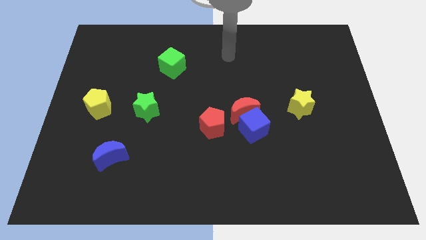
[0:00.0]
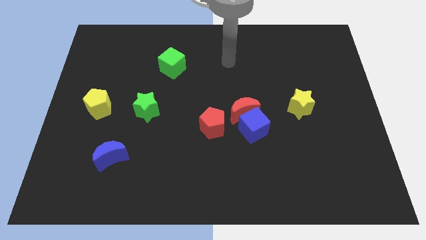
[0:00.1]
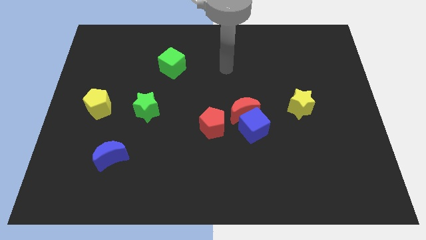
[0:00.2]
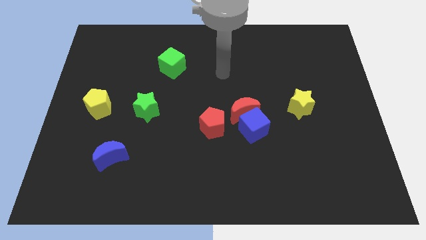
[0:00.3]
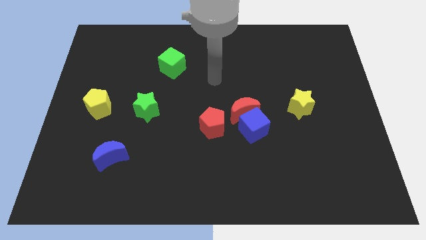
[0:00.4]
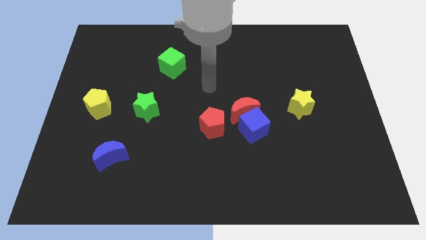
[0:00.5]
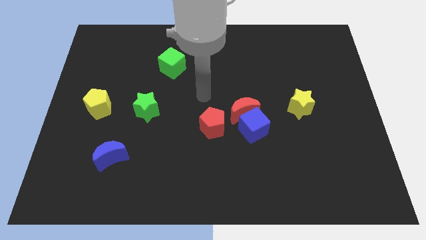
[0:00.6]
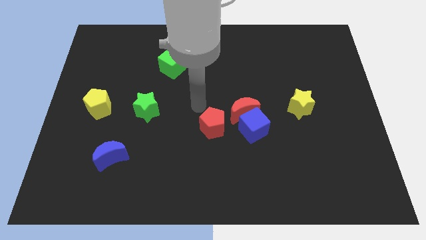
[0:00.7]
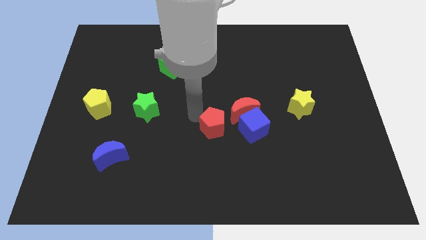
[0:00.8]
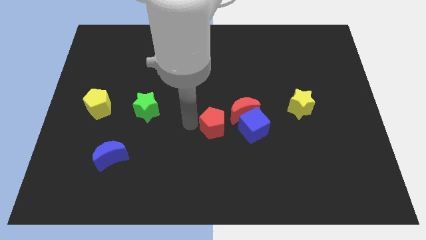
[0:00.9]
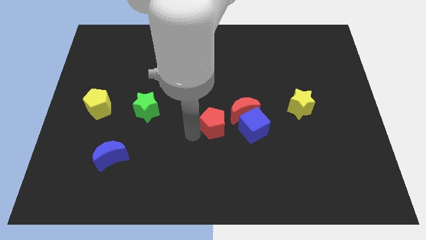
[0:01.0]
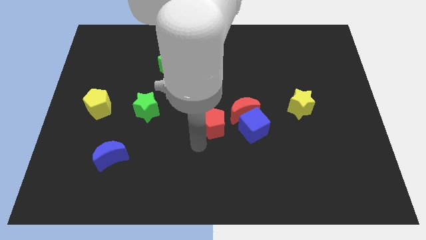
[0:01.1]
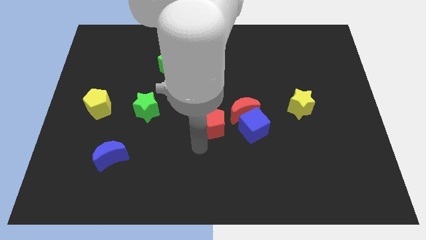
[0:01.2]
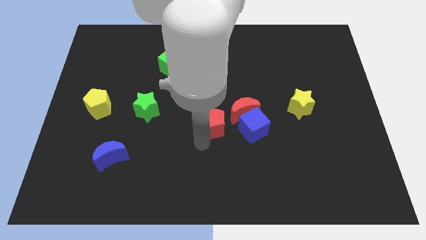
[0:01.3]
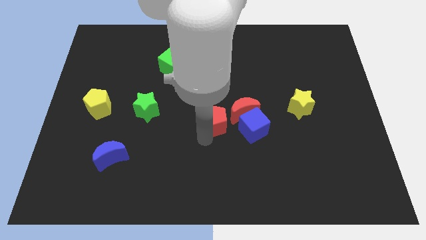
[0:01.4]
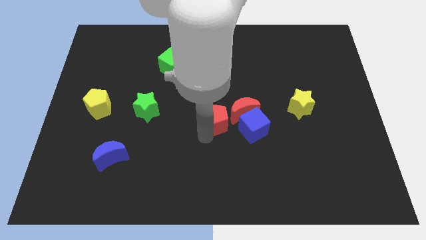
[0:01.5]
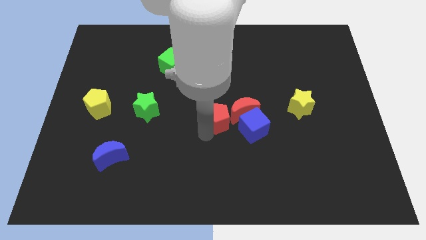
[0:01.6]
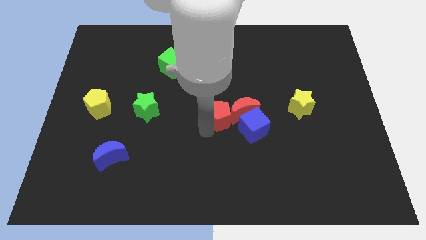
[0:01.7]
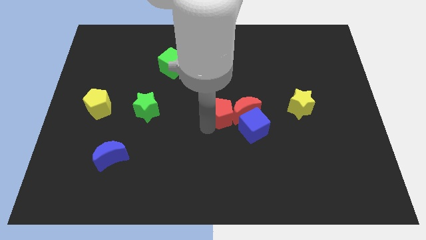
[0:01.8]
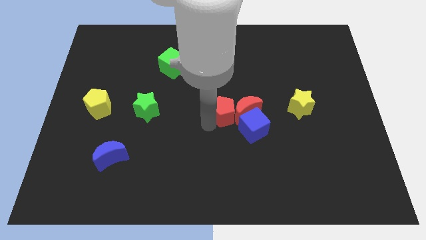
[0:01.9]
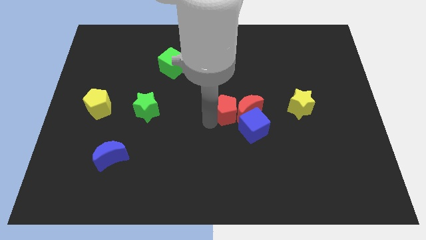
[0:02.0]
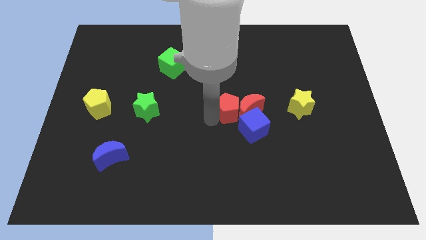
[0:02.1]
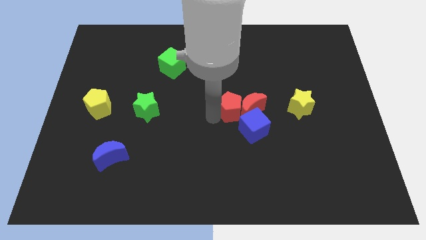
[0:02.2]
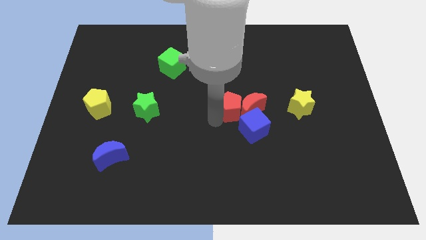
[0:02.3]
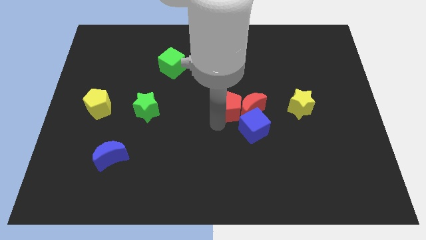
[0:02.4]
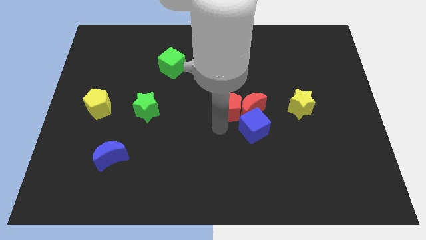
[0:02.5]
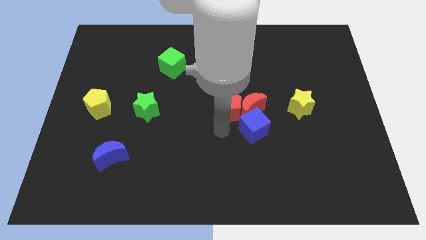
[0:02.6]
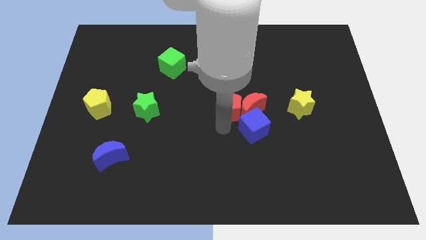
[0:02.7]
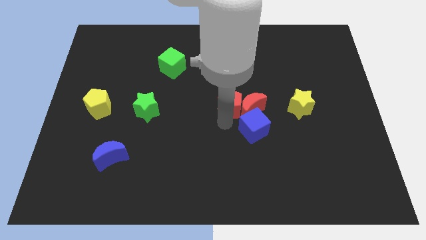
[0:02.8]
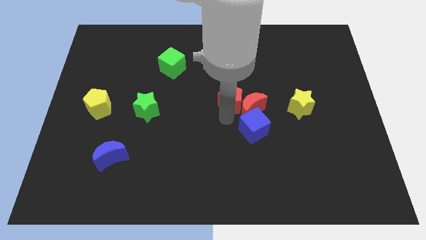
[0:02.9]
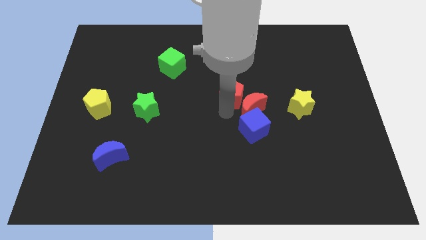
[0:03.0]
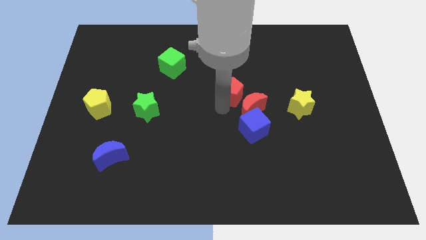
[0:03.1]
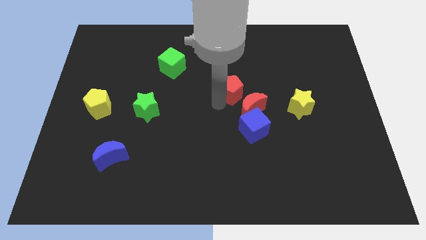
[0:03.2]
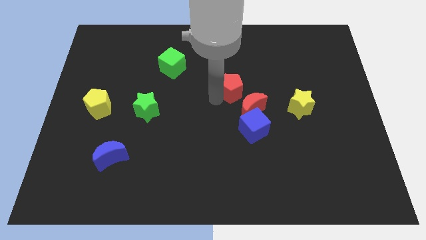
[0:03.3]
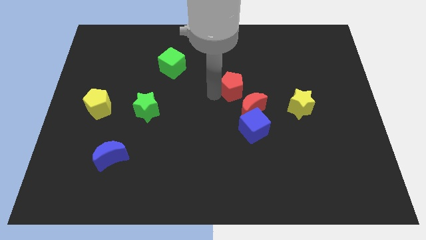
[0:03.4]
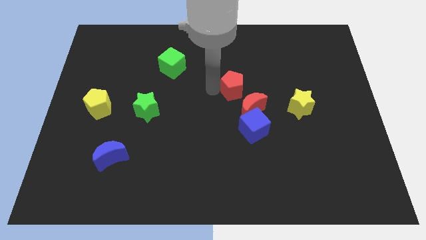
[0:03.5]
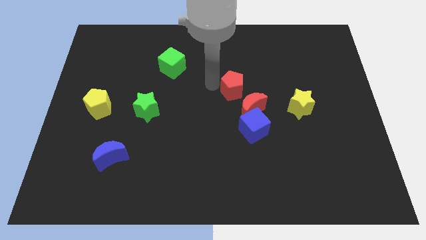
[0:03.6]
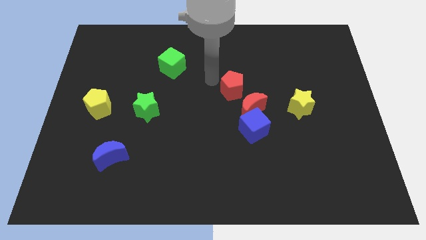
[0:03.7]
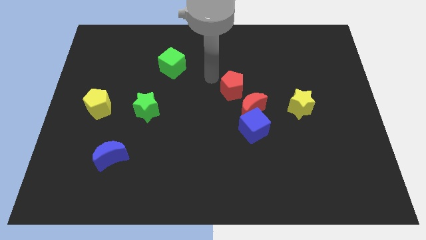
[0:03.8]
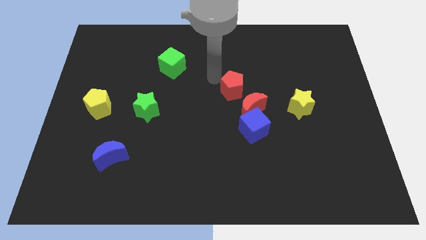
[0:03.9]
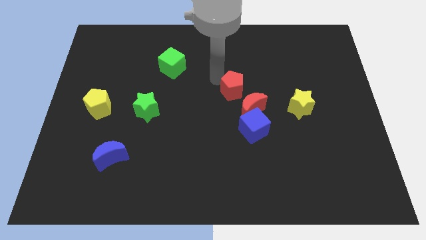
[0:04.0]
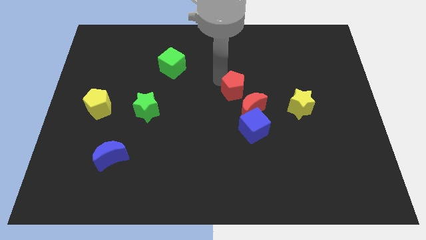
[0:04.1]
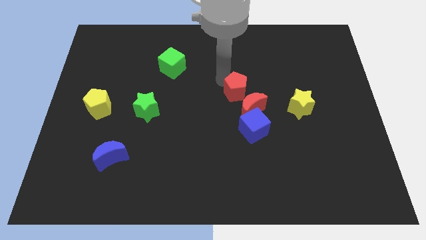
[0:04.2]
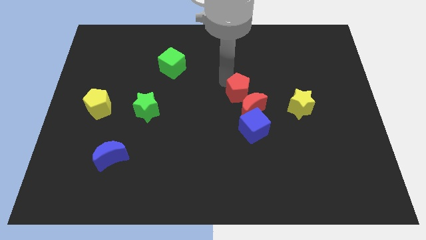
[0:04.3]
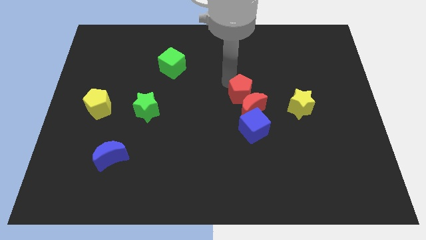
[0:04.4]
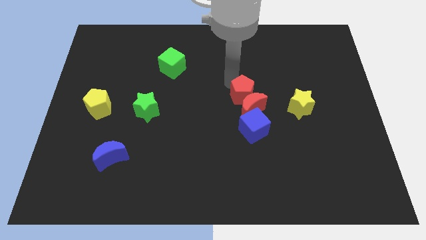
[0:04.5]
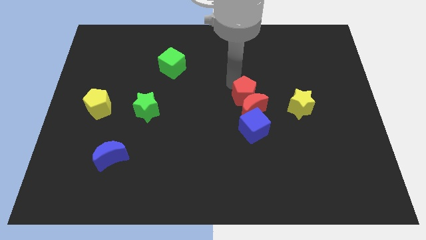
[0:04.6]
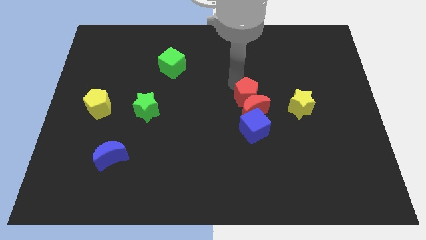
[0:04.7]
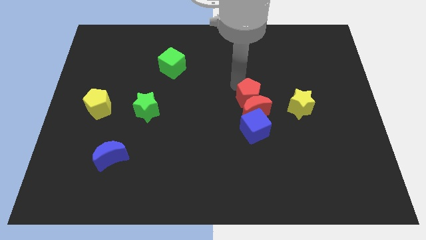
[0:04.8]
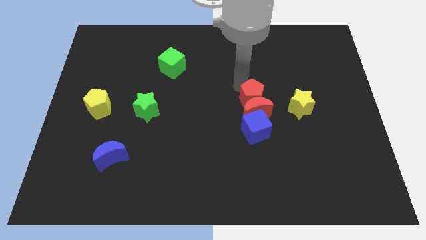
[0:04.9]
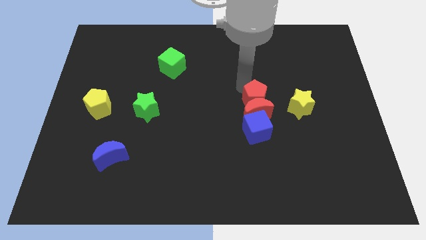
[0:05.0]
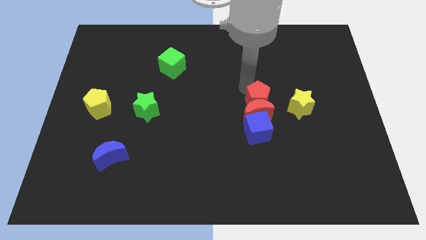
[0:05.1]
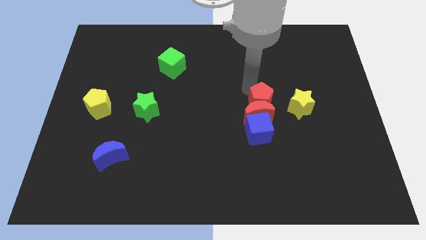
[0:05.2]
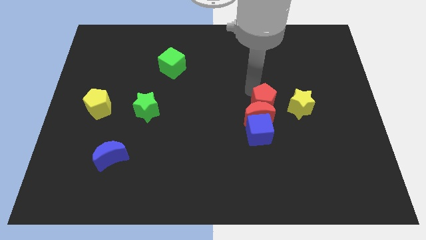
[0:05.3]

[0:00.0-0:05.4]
move the red pentagon to the top right side of the blue cube

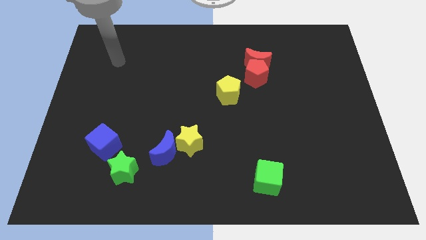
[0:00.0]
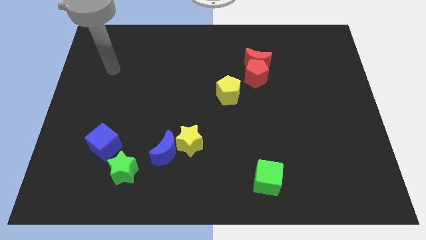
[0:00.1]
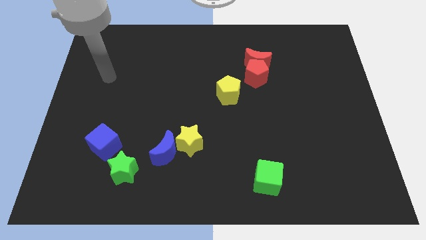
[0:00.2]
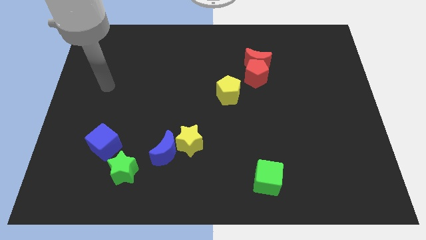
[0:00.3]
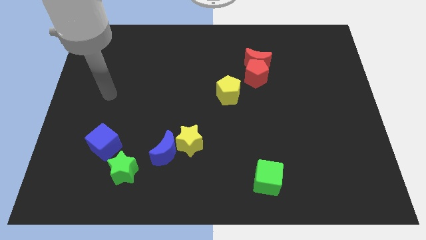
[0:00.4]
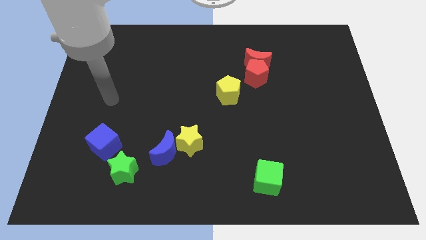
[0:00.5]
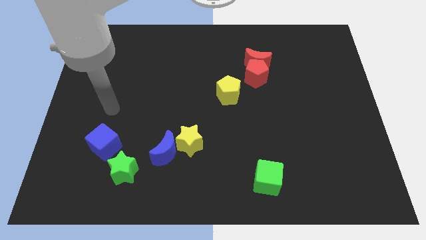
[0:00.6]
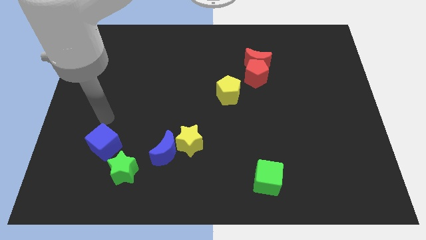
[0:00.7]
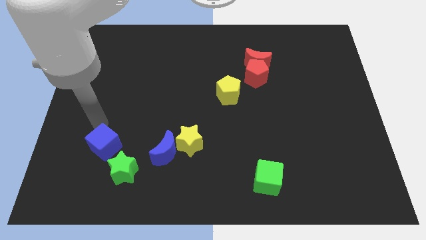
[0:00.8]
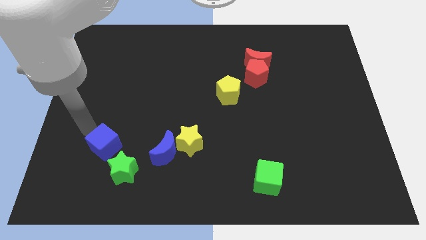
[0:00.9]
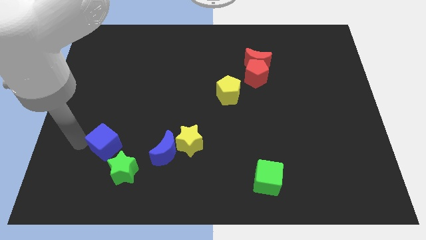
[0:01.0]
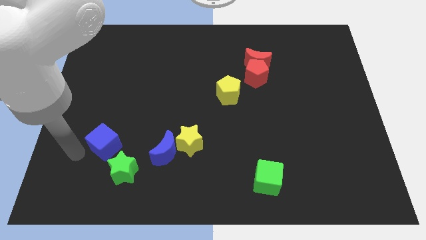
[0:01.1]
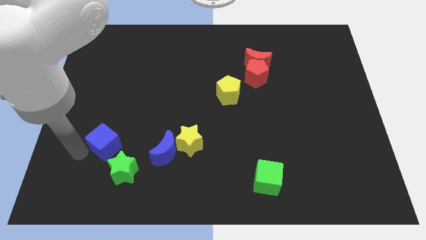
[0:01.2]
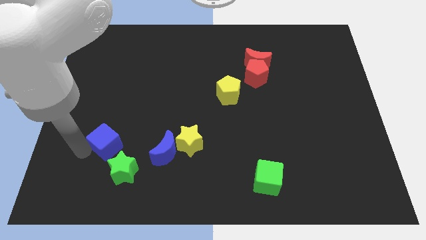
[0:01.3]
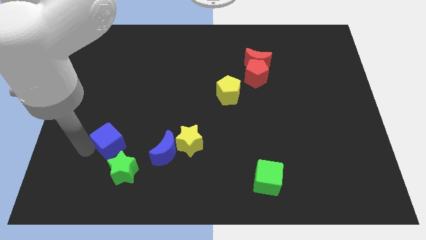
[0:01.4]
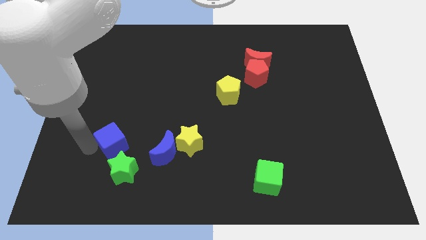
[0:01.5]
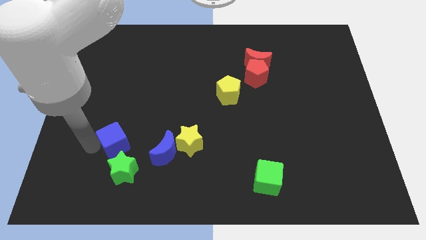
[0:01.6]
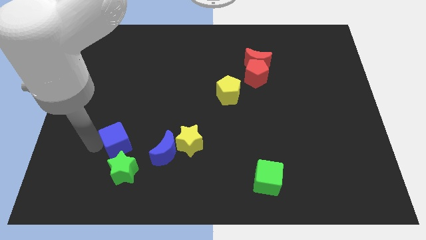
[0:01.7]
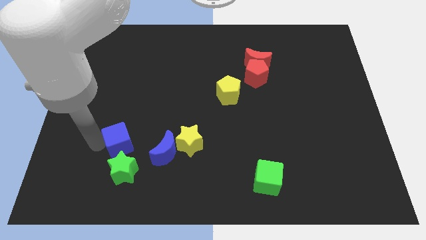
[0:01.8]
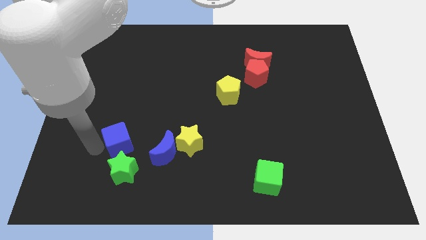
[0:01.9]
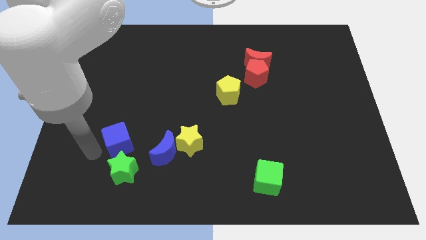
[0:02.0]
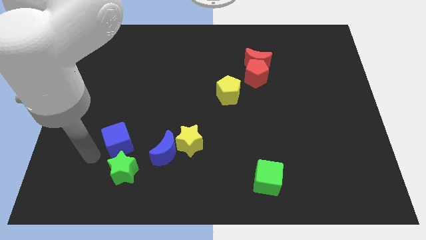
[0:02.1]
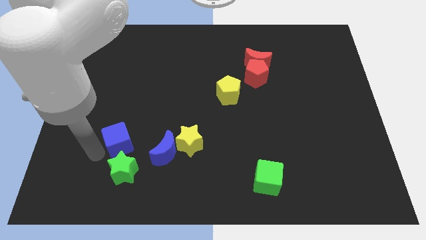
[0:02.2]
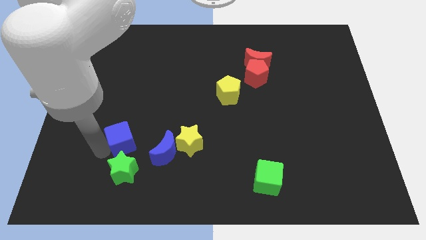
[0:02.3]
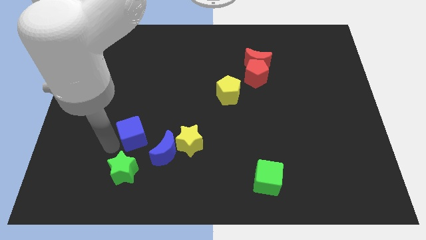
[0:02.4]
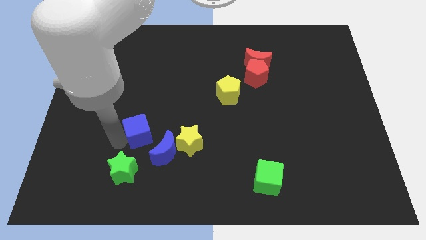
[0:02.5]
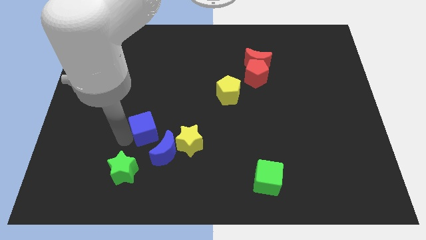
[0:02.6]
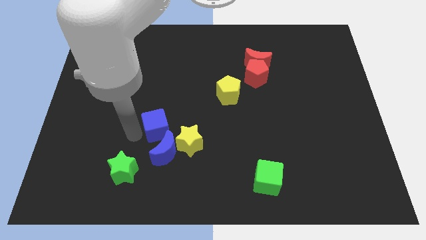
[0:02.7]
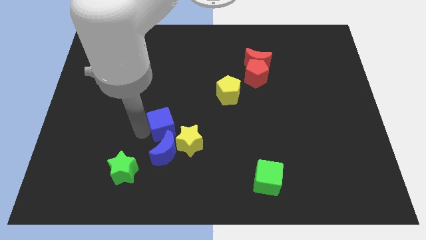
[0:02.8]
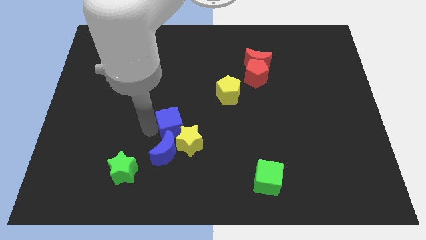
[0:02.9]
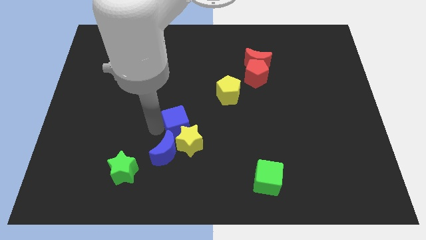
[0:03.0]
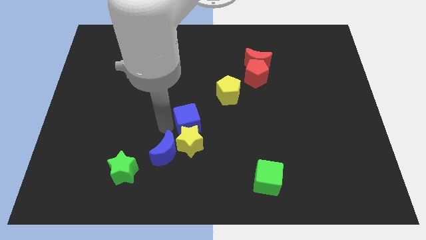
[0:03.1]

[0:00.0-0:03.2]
move the blue cube to the top right side of the yellow star
